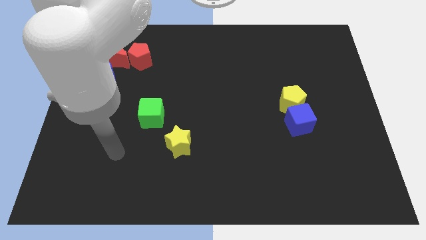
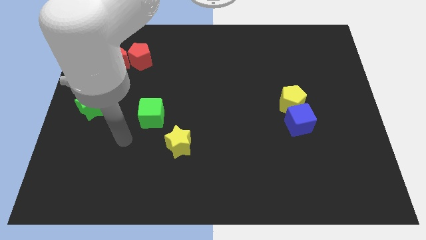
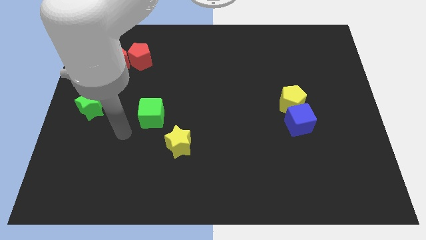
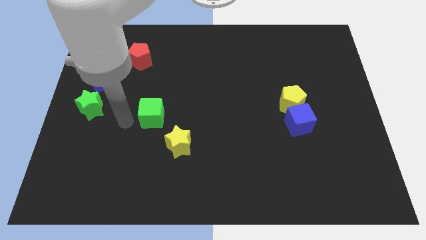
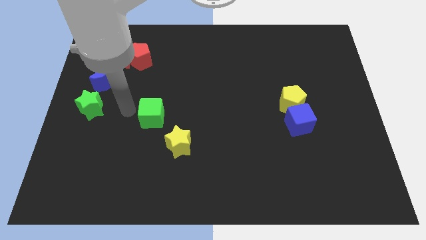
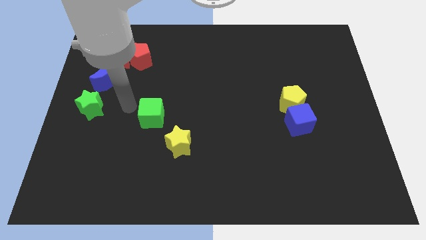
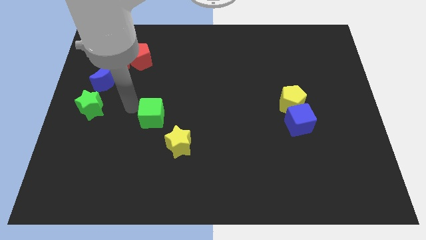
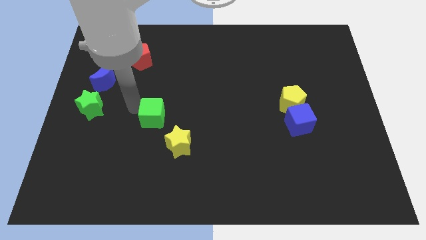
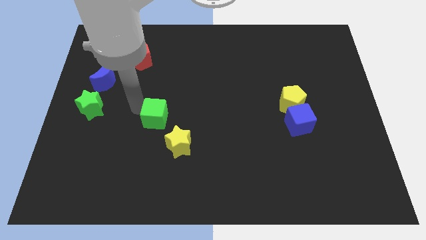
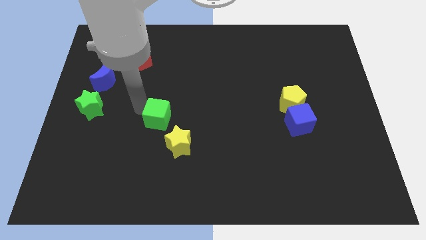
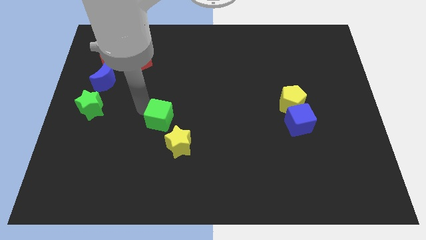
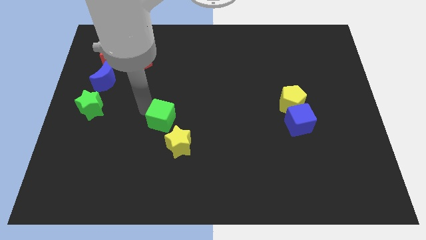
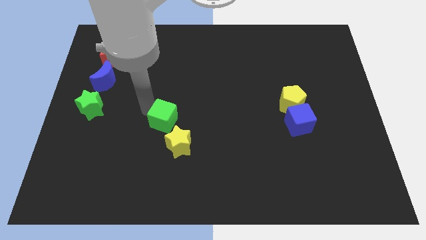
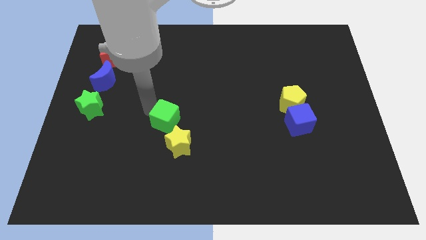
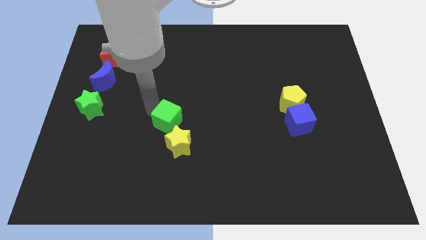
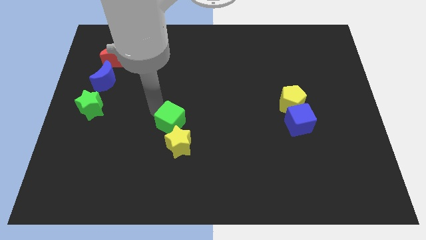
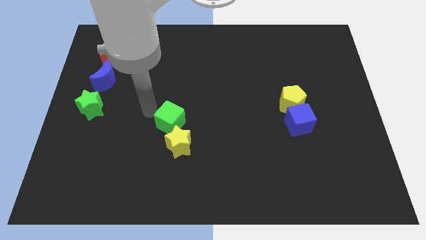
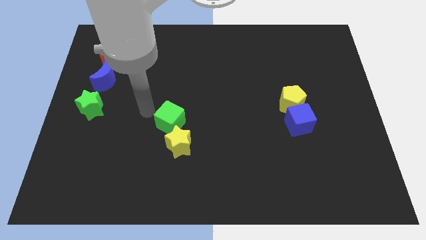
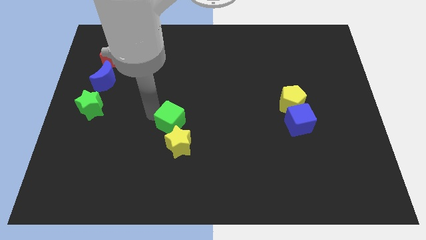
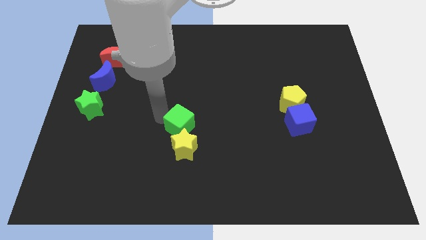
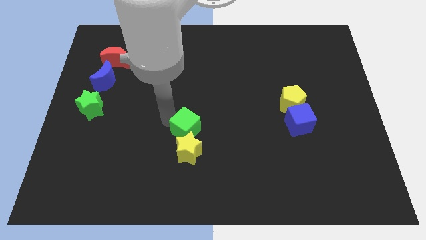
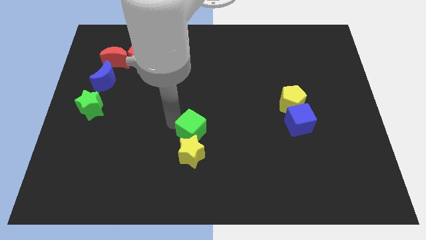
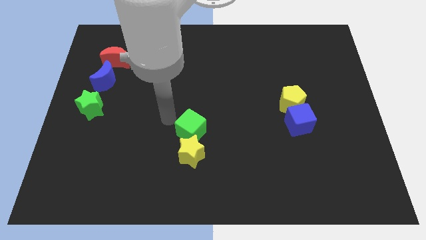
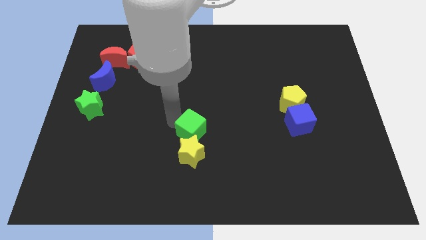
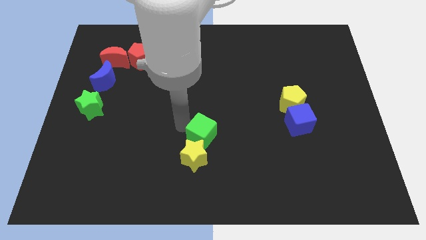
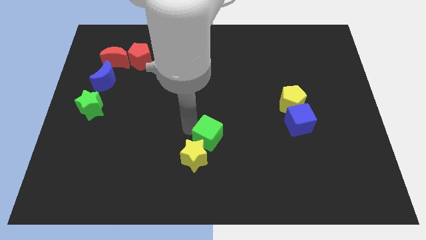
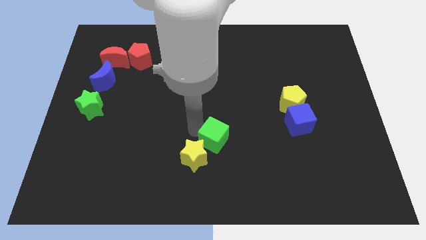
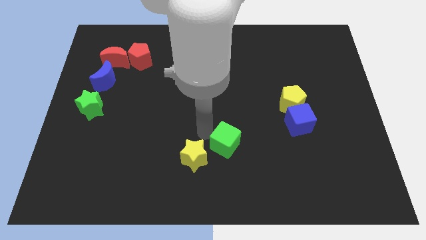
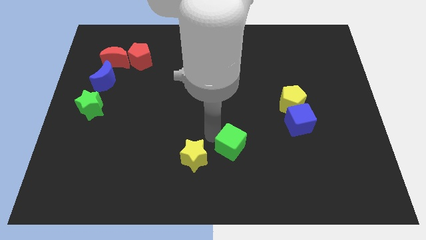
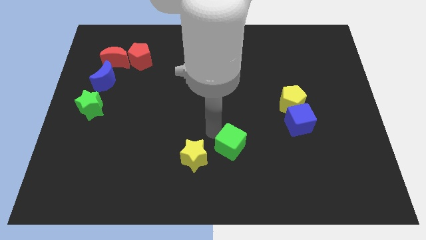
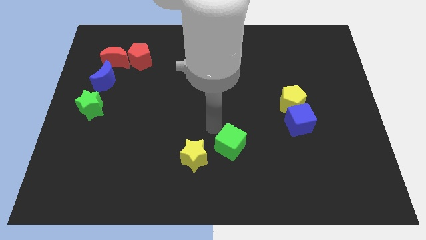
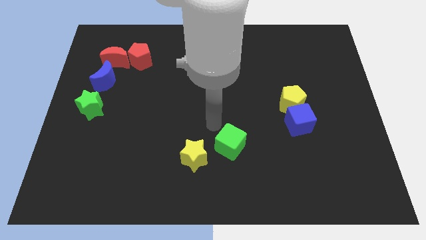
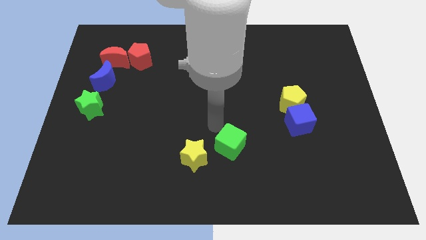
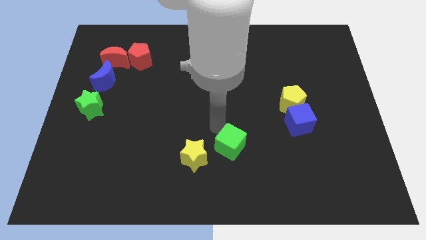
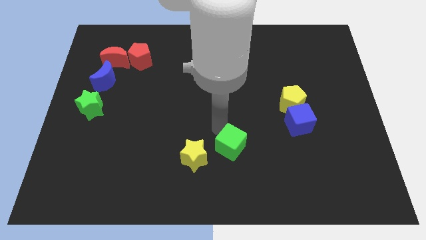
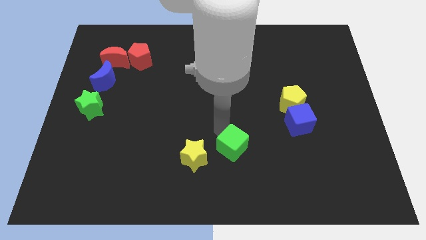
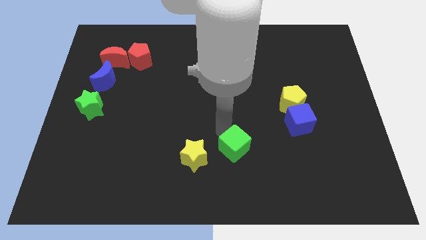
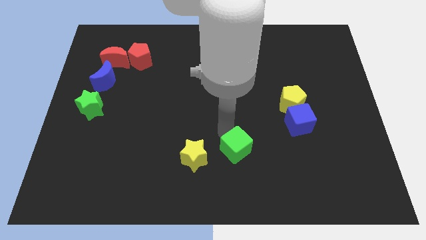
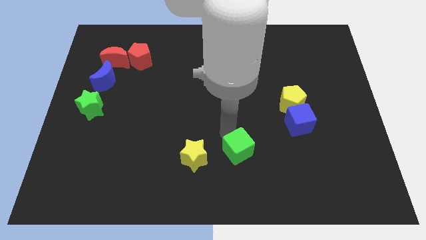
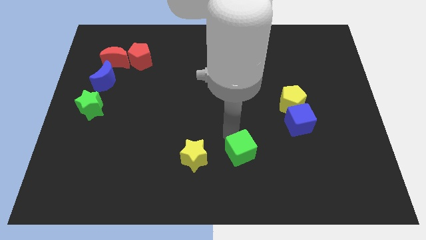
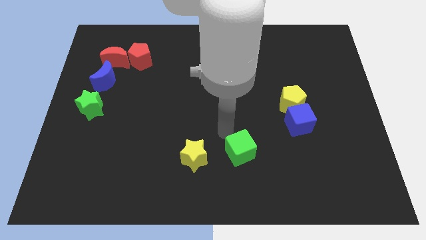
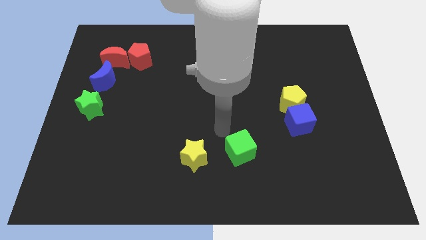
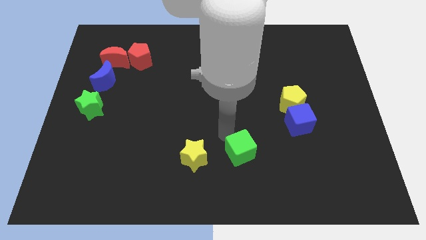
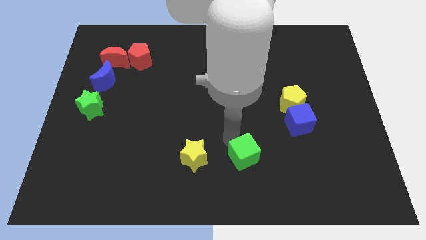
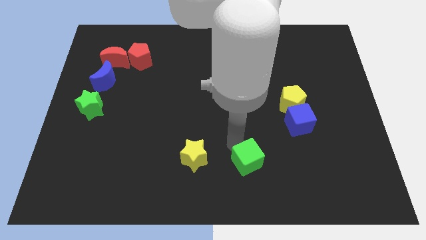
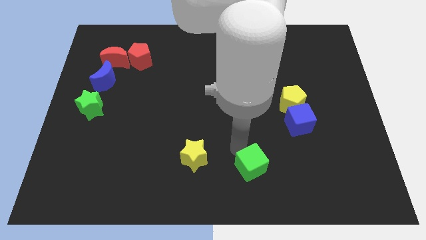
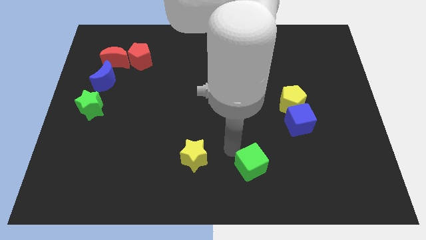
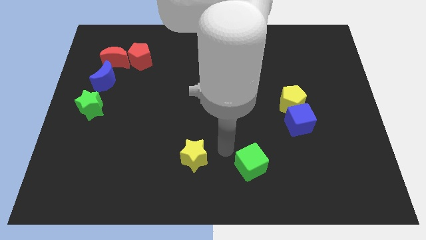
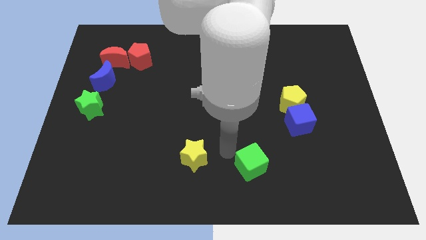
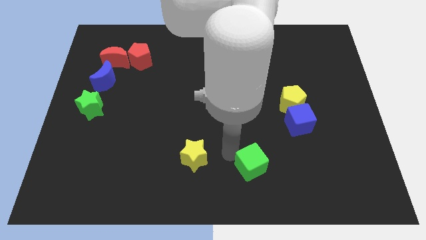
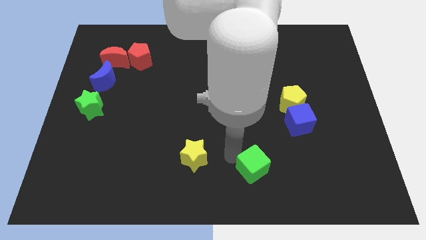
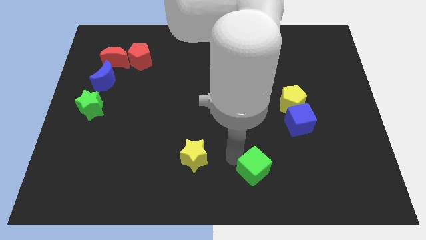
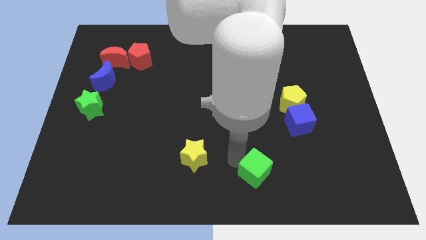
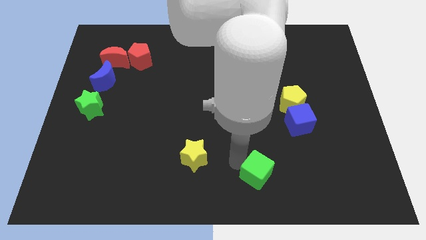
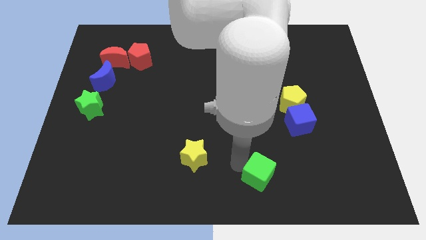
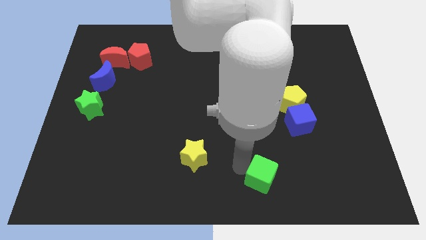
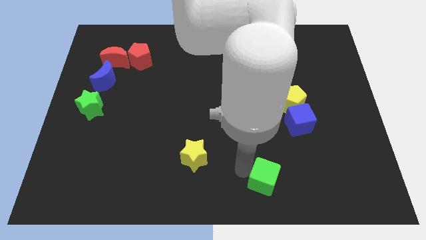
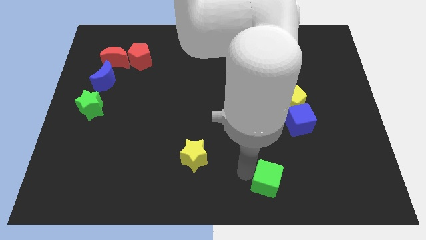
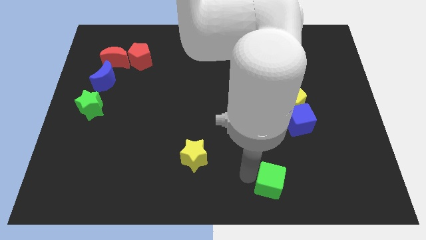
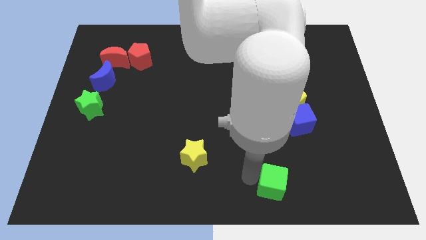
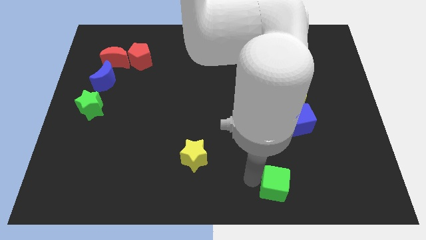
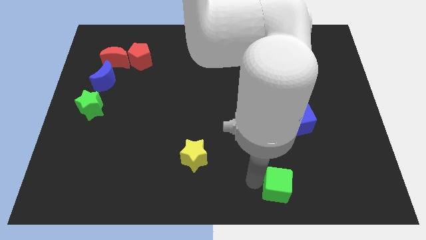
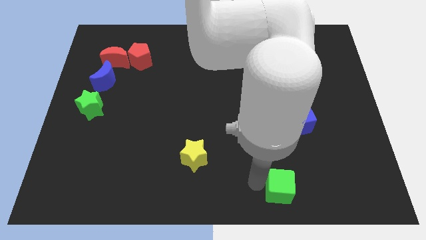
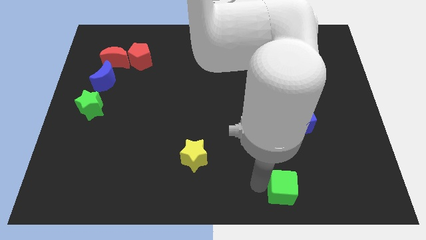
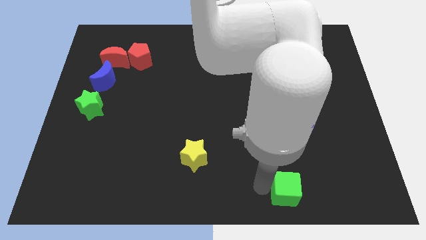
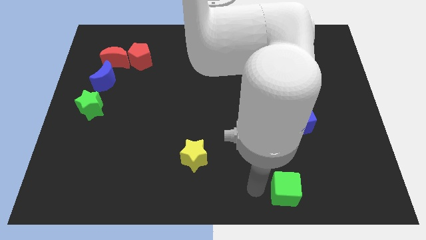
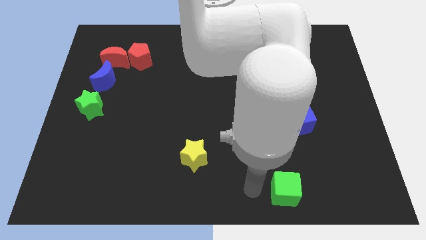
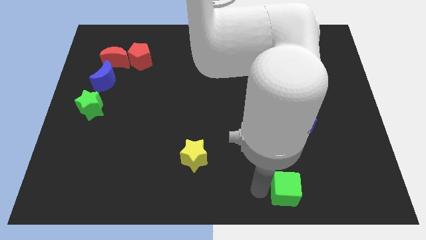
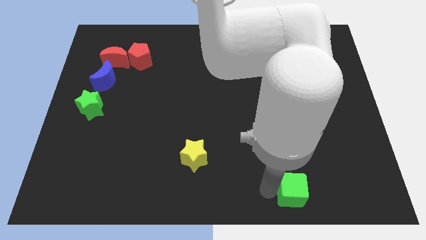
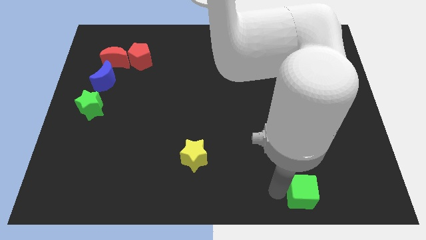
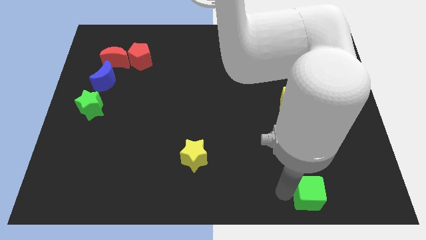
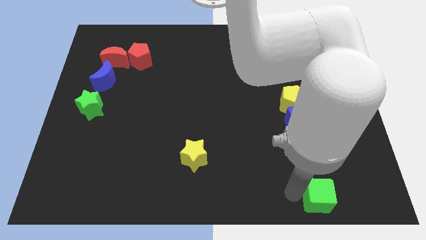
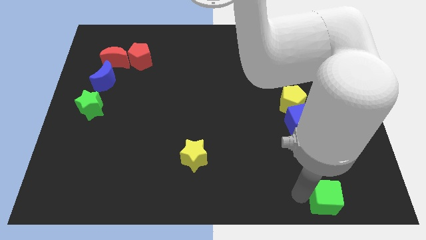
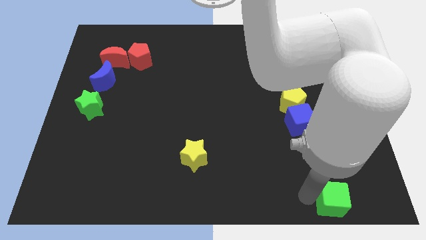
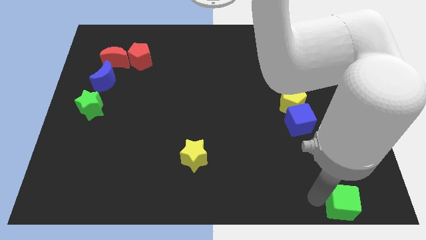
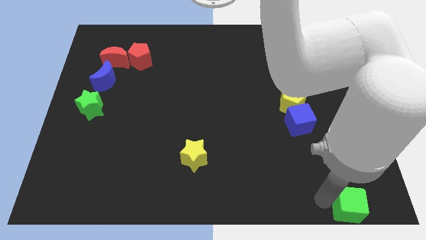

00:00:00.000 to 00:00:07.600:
slide the green cube to the bottom right
